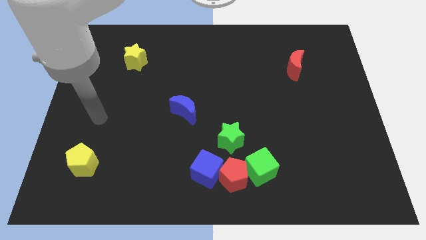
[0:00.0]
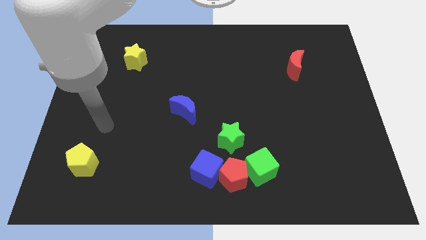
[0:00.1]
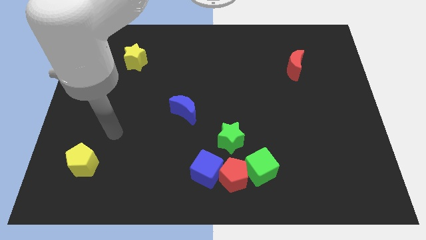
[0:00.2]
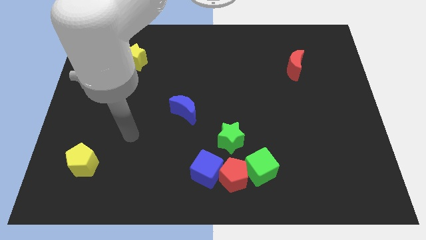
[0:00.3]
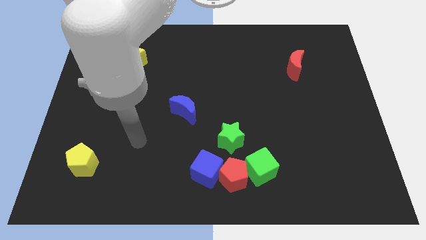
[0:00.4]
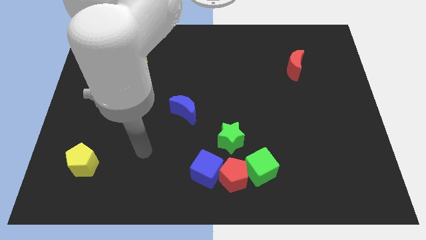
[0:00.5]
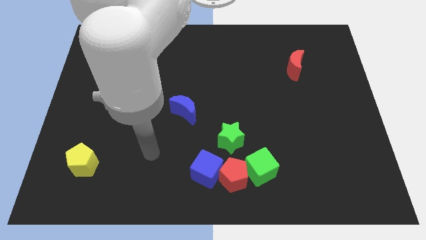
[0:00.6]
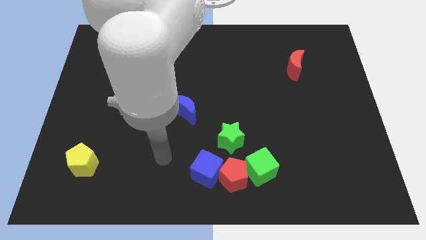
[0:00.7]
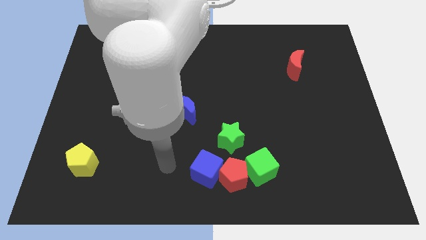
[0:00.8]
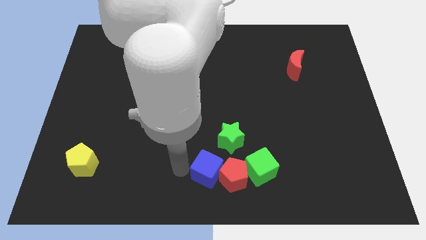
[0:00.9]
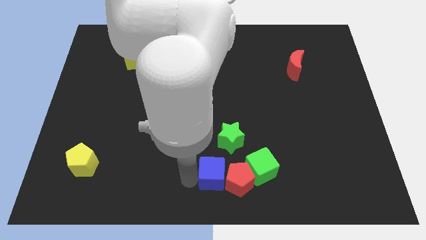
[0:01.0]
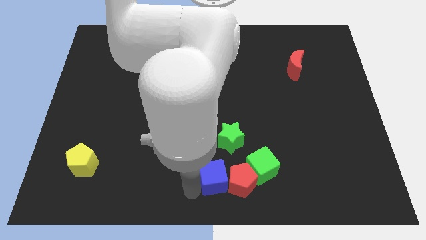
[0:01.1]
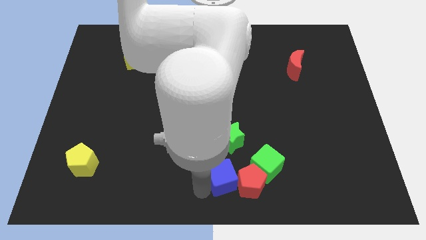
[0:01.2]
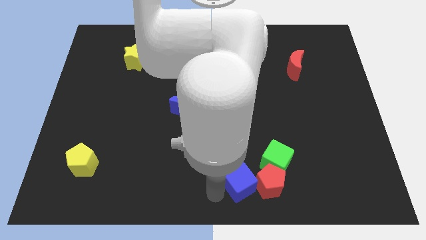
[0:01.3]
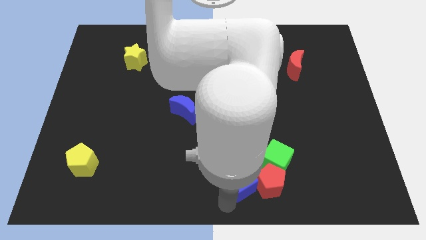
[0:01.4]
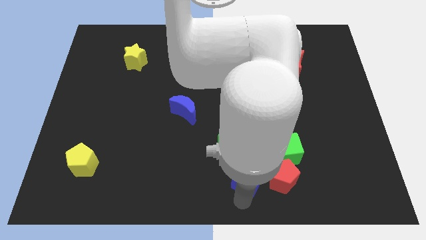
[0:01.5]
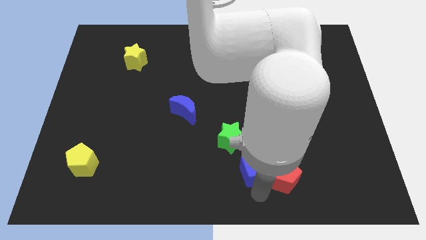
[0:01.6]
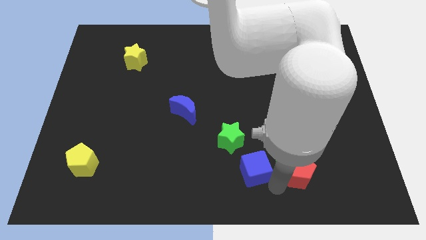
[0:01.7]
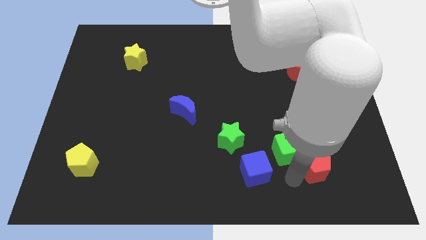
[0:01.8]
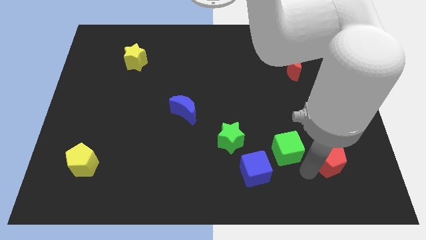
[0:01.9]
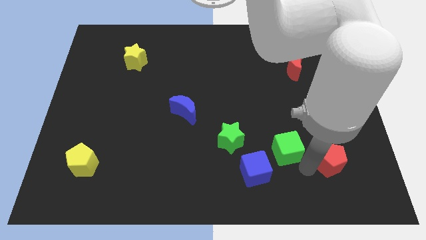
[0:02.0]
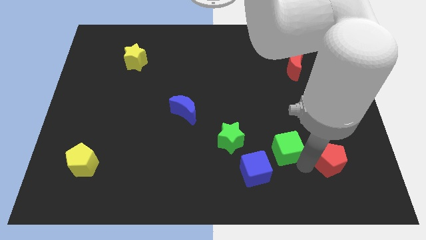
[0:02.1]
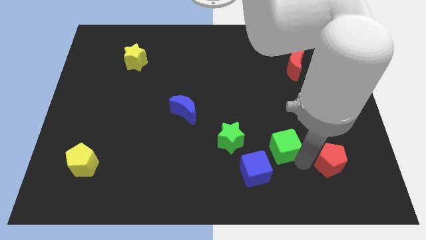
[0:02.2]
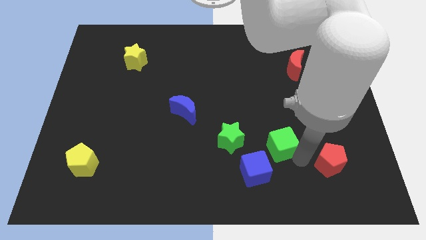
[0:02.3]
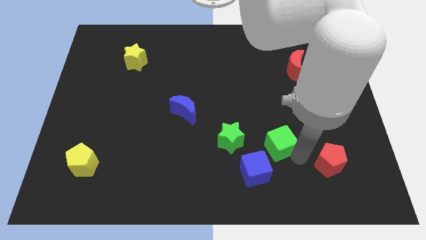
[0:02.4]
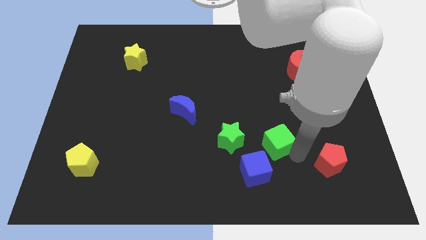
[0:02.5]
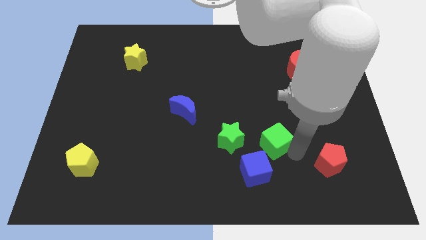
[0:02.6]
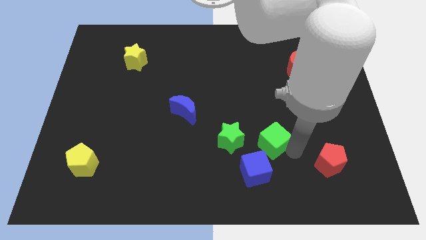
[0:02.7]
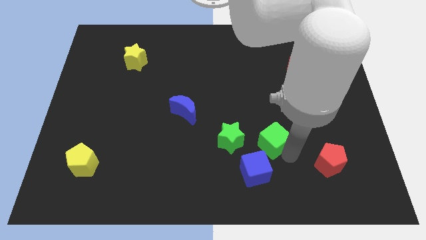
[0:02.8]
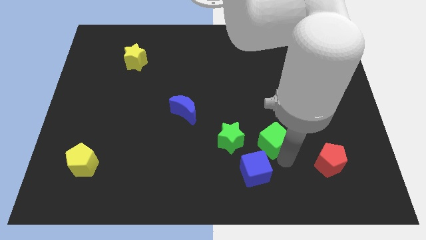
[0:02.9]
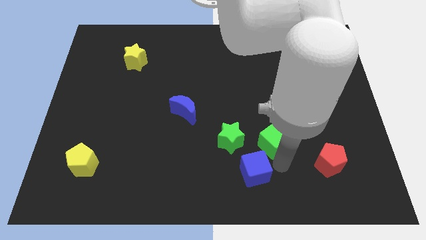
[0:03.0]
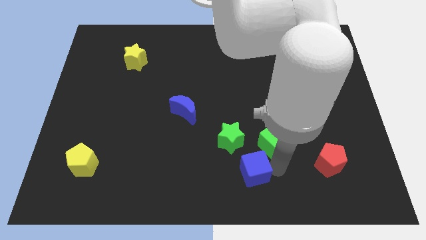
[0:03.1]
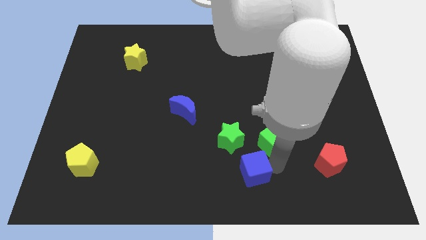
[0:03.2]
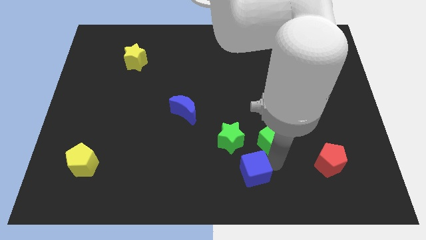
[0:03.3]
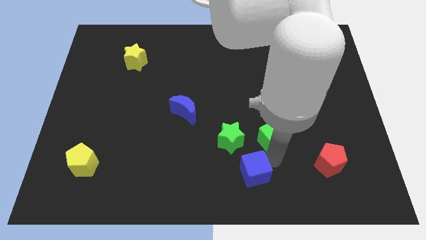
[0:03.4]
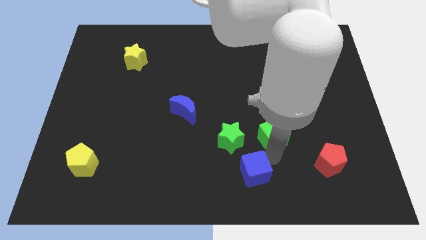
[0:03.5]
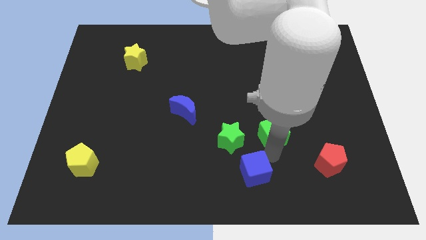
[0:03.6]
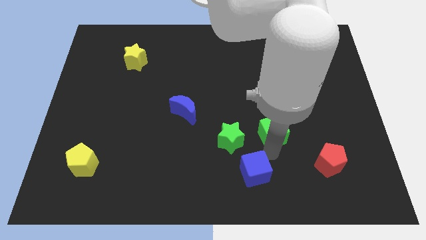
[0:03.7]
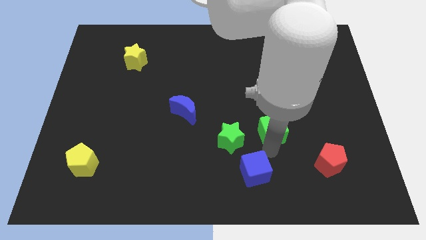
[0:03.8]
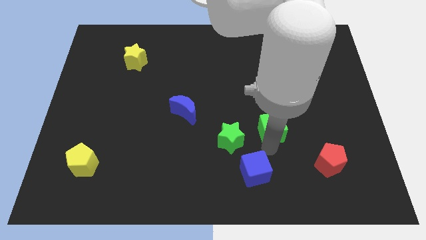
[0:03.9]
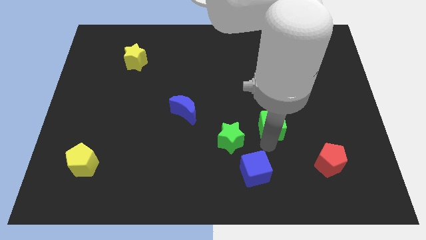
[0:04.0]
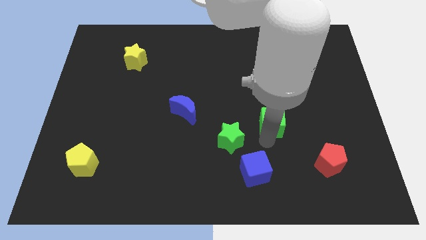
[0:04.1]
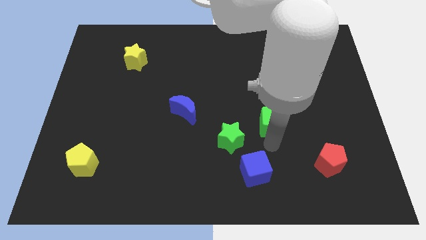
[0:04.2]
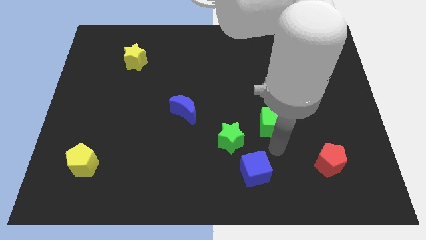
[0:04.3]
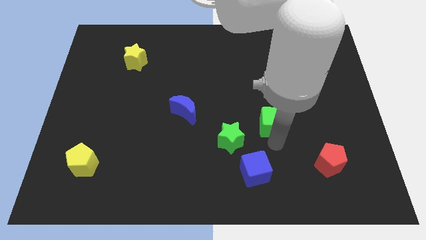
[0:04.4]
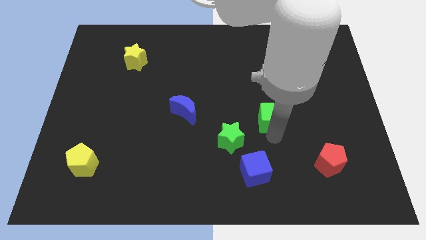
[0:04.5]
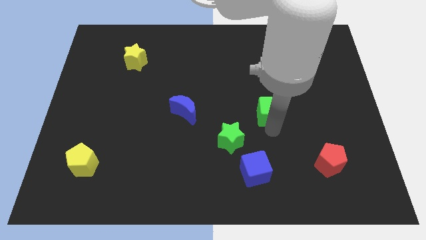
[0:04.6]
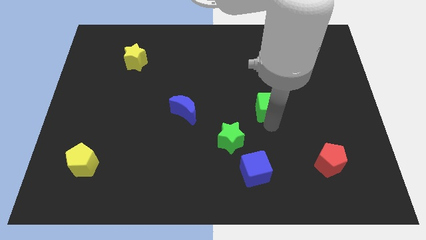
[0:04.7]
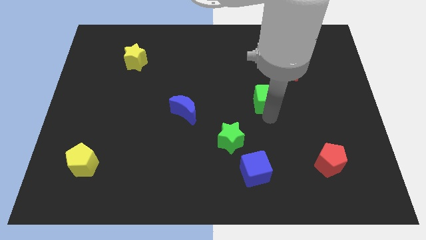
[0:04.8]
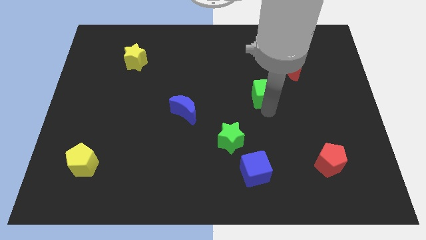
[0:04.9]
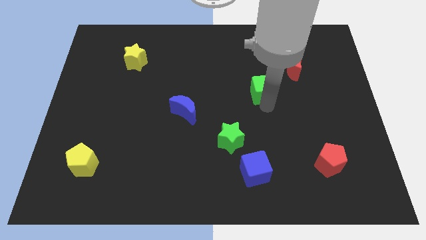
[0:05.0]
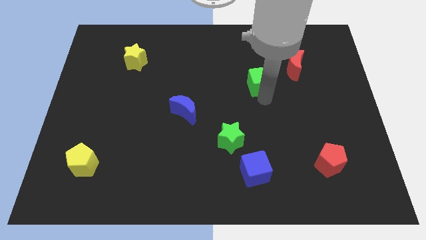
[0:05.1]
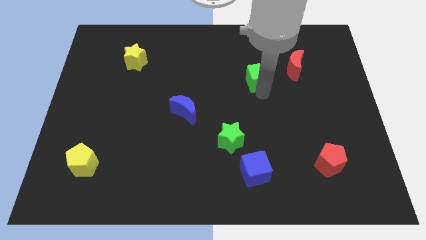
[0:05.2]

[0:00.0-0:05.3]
slide the green cube just left of the red moon

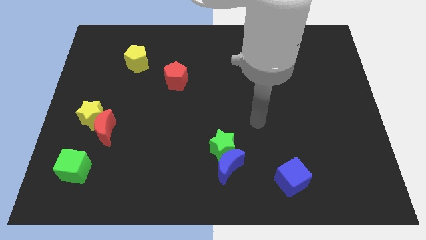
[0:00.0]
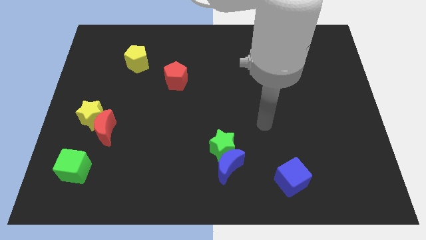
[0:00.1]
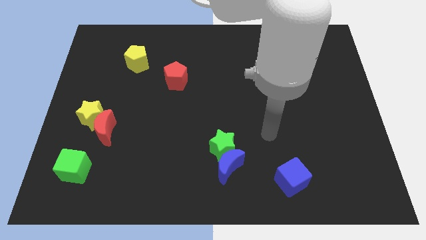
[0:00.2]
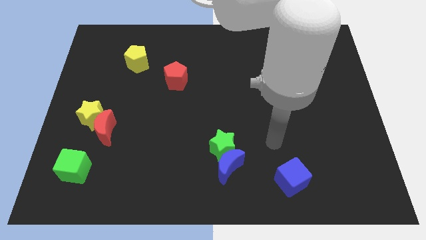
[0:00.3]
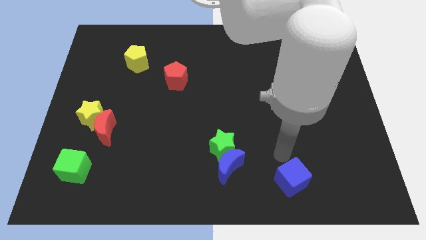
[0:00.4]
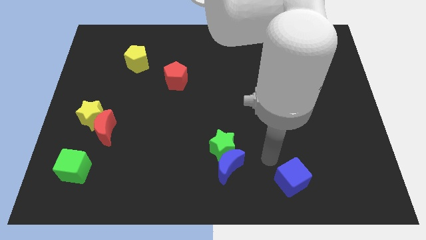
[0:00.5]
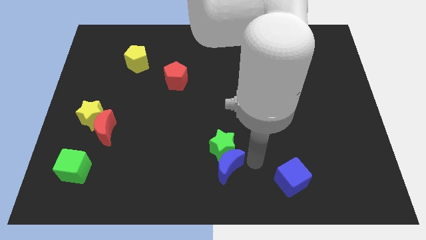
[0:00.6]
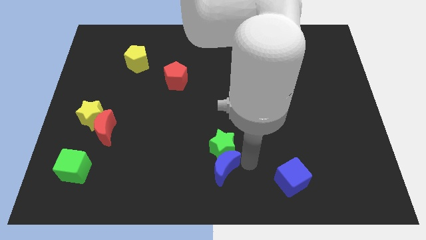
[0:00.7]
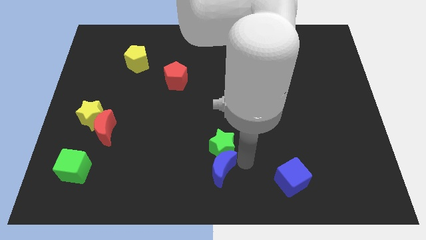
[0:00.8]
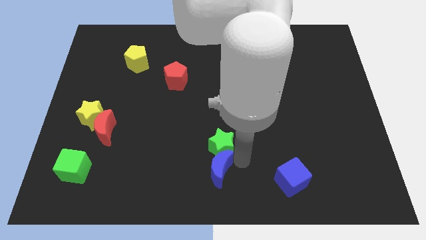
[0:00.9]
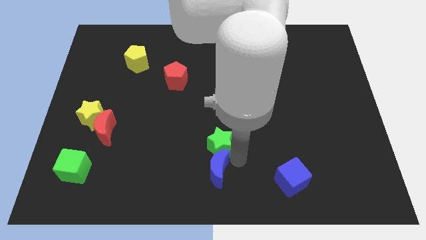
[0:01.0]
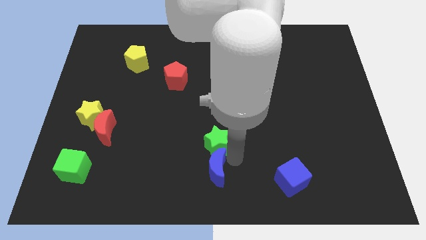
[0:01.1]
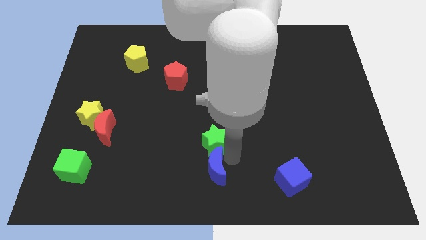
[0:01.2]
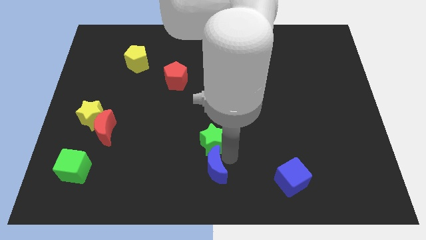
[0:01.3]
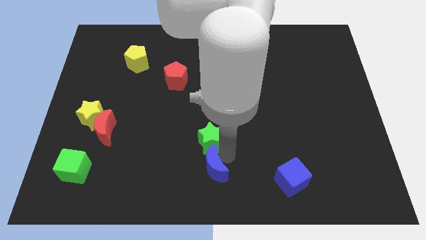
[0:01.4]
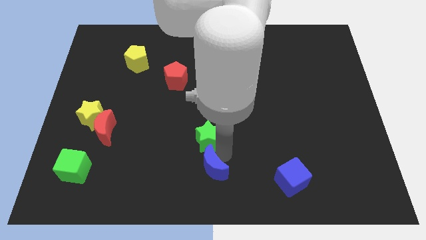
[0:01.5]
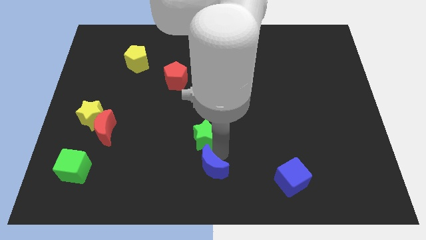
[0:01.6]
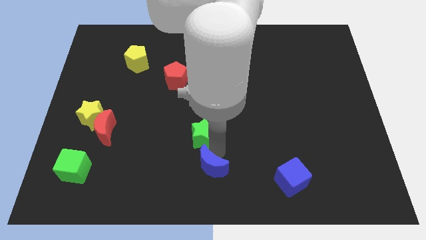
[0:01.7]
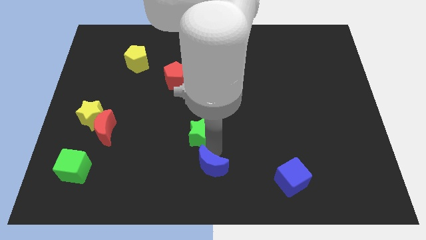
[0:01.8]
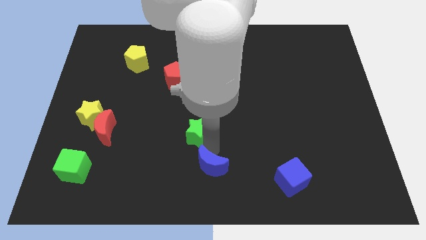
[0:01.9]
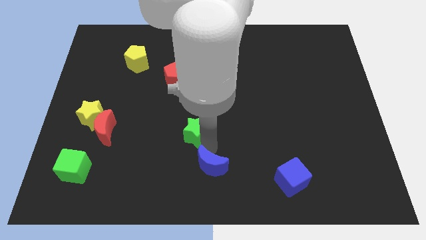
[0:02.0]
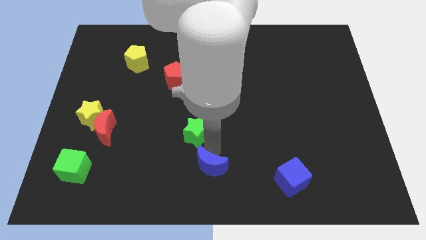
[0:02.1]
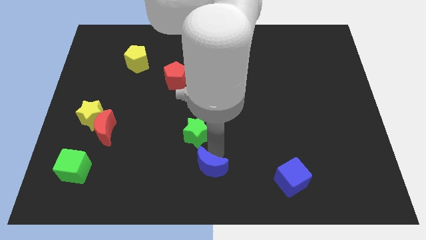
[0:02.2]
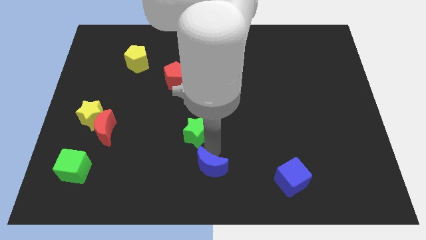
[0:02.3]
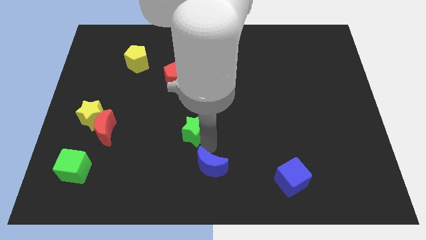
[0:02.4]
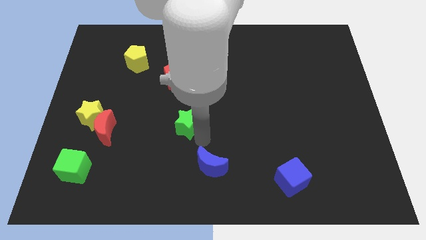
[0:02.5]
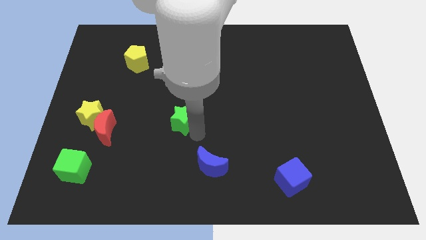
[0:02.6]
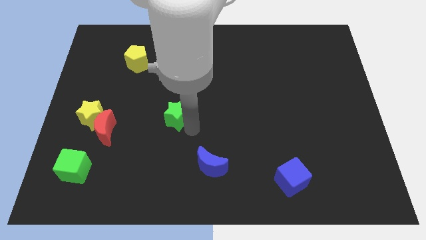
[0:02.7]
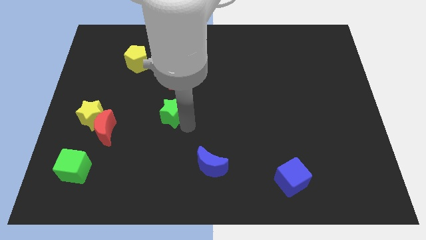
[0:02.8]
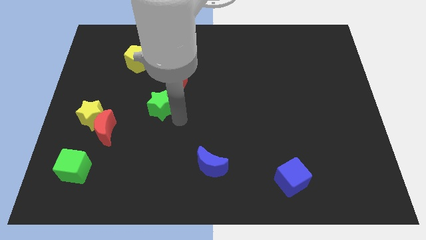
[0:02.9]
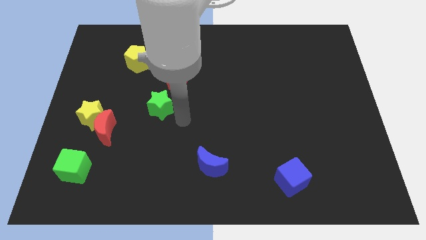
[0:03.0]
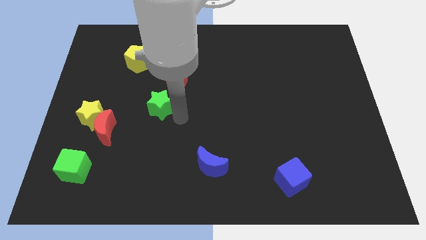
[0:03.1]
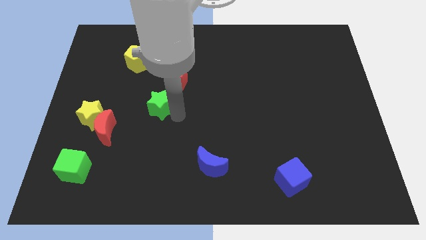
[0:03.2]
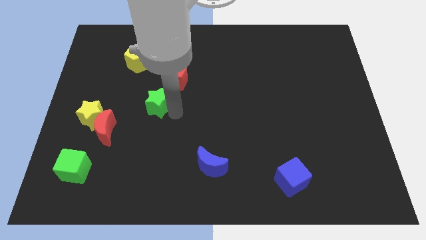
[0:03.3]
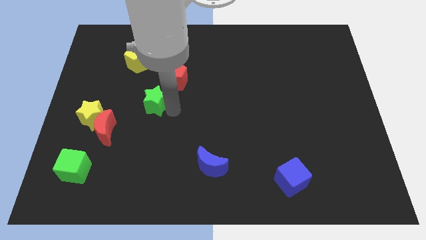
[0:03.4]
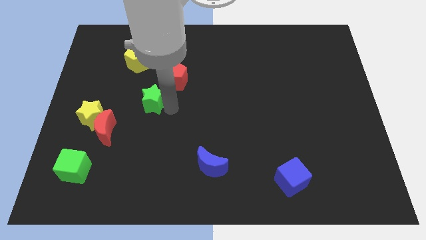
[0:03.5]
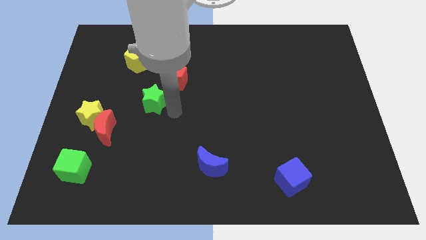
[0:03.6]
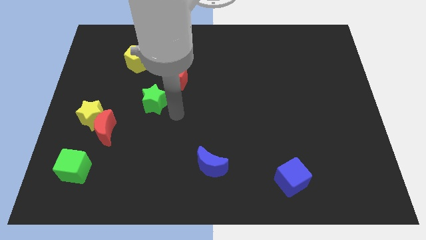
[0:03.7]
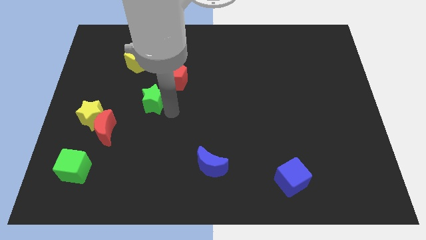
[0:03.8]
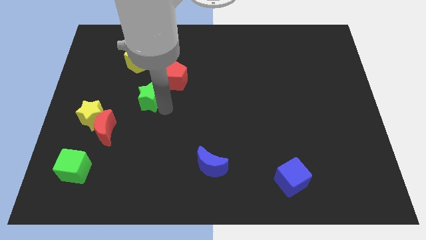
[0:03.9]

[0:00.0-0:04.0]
push the green star to the bottom of the yellow pentagon
